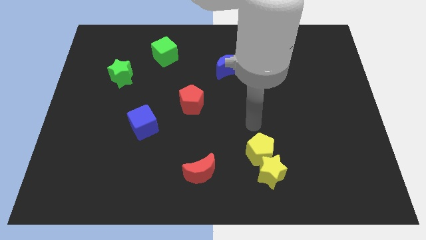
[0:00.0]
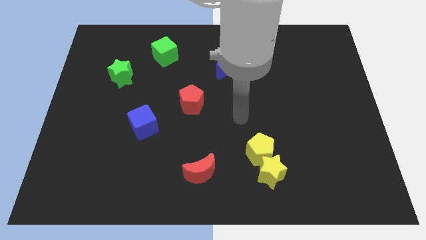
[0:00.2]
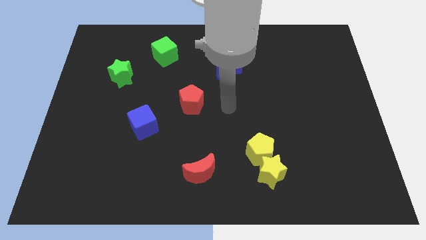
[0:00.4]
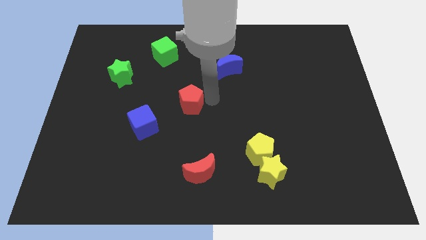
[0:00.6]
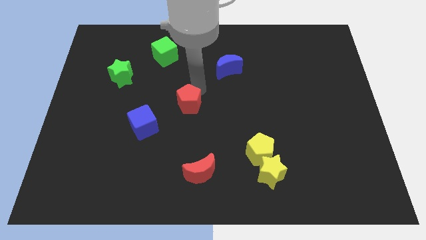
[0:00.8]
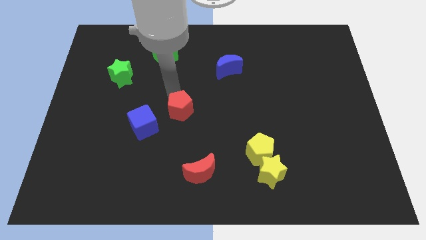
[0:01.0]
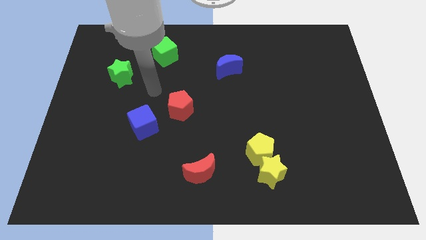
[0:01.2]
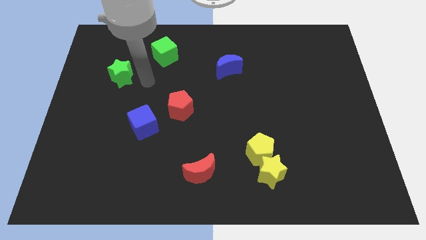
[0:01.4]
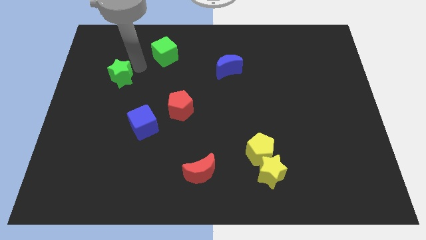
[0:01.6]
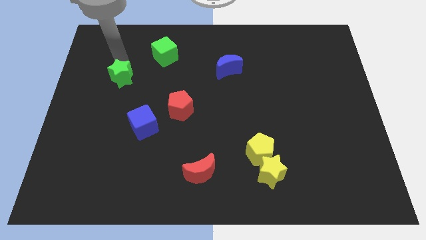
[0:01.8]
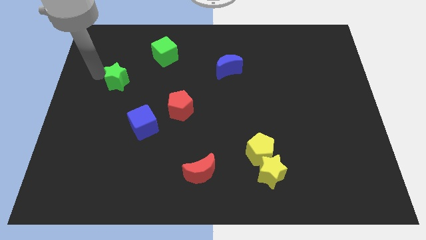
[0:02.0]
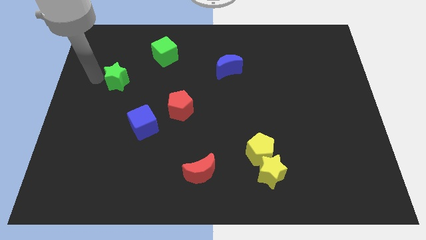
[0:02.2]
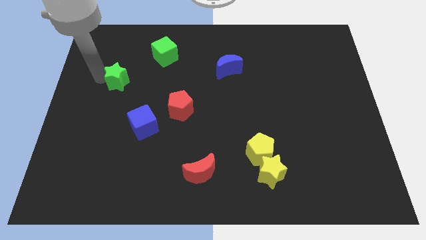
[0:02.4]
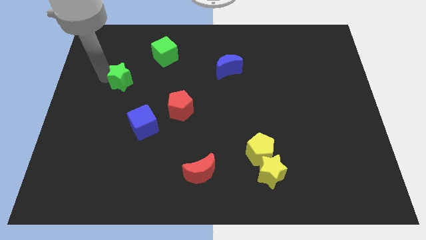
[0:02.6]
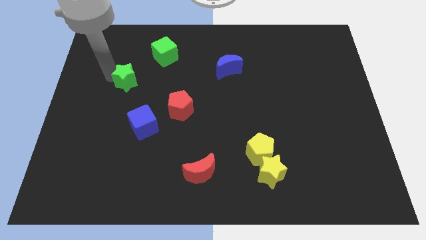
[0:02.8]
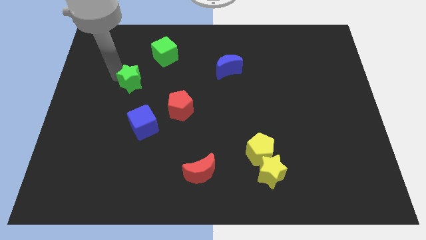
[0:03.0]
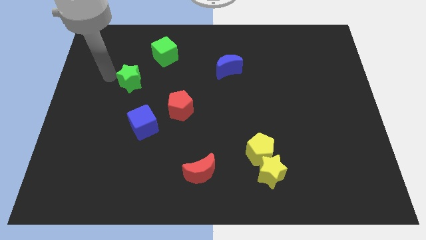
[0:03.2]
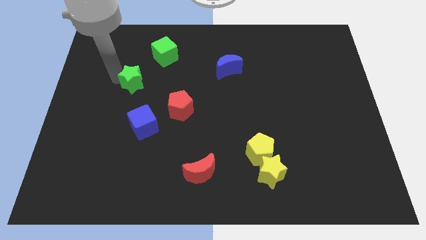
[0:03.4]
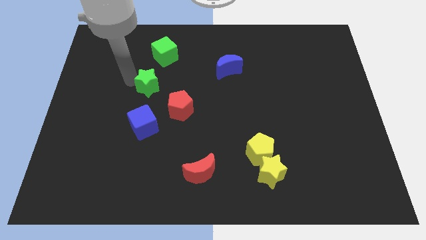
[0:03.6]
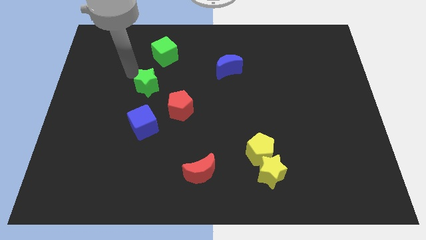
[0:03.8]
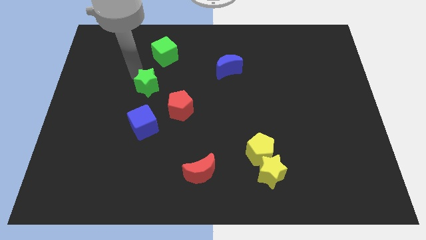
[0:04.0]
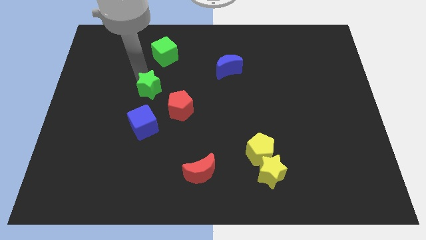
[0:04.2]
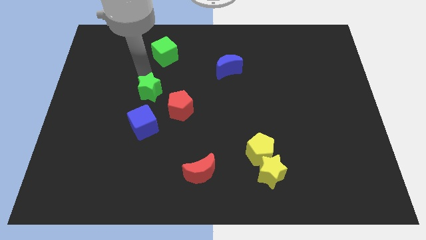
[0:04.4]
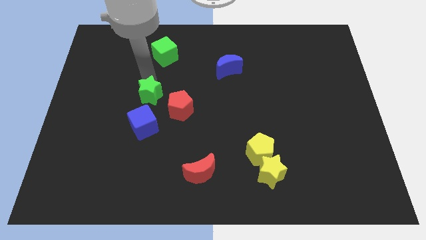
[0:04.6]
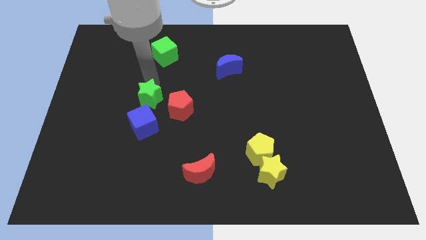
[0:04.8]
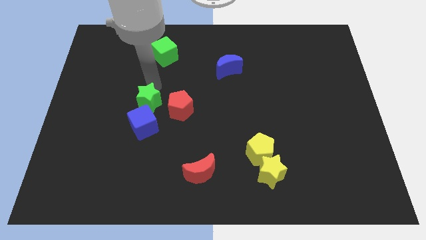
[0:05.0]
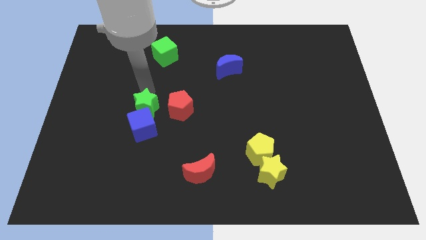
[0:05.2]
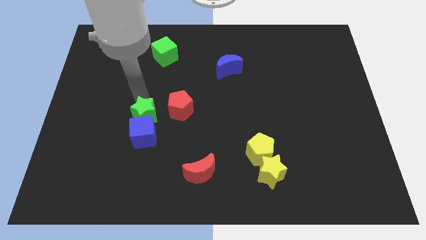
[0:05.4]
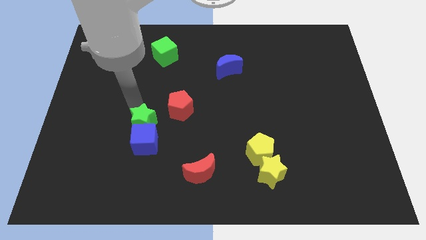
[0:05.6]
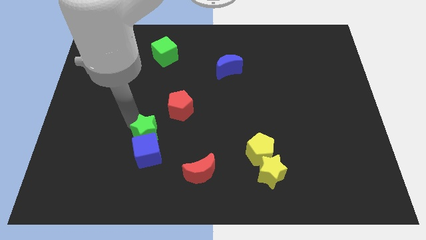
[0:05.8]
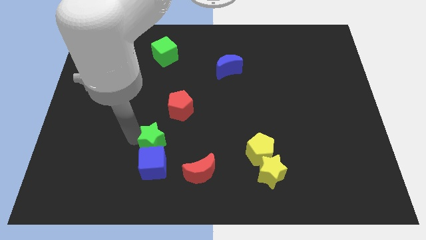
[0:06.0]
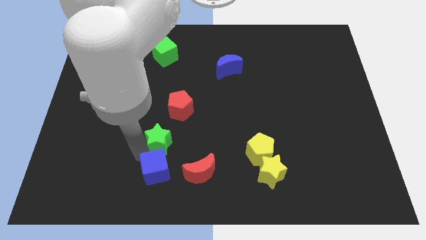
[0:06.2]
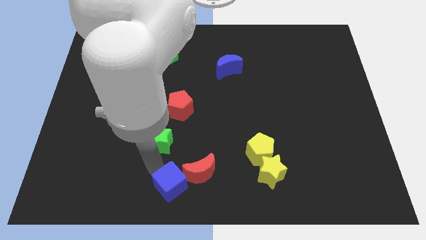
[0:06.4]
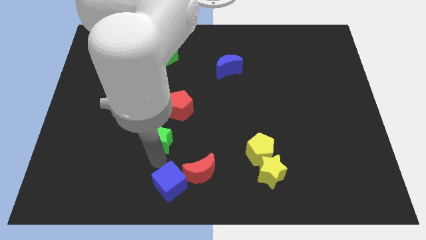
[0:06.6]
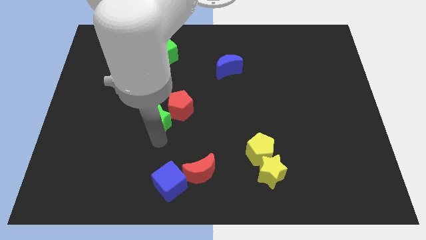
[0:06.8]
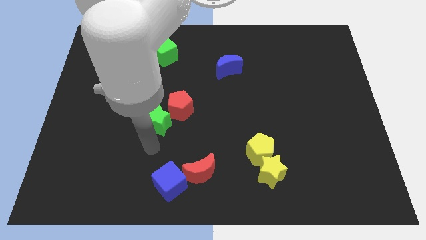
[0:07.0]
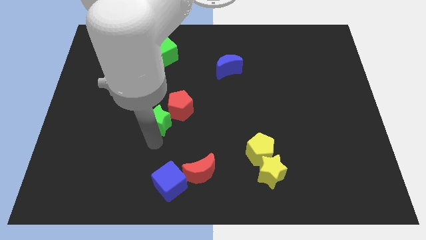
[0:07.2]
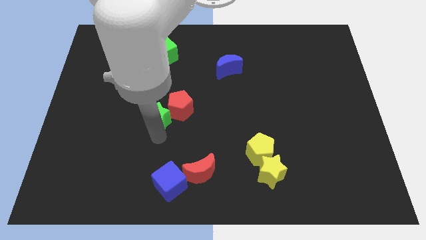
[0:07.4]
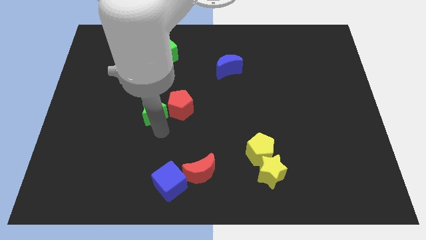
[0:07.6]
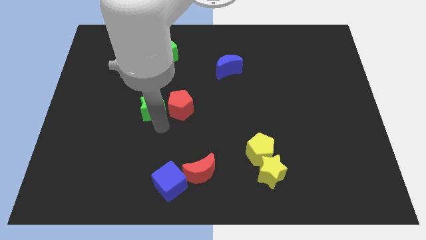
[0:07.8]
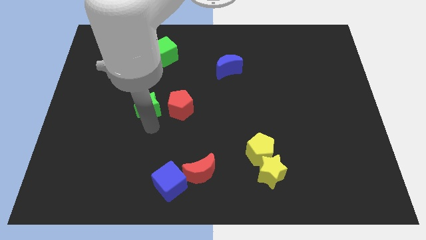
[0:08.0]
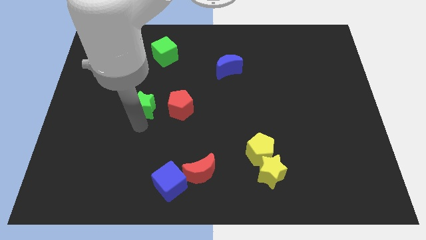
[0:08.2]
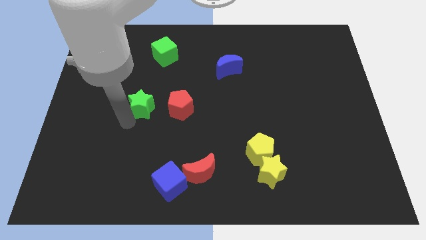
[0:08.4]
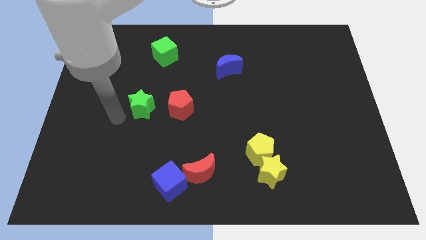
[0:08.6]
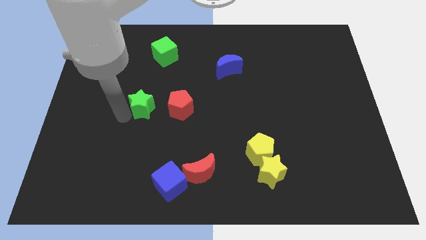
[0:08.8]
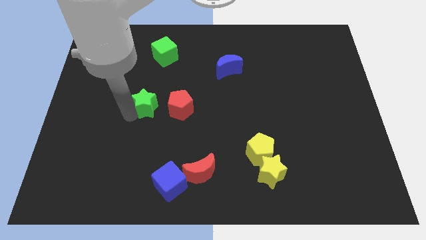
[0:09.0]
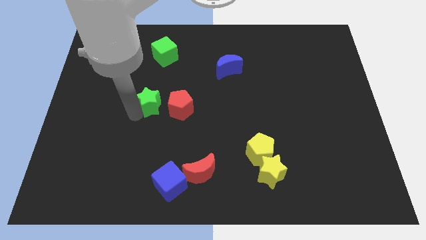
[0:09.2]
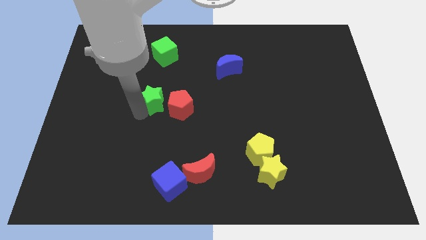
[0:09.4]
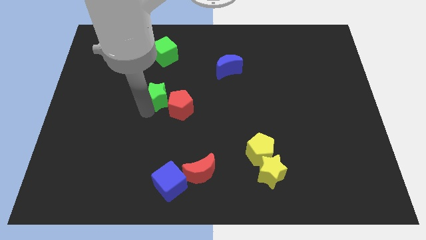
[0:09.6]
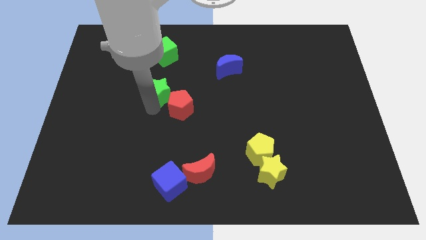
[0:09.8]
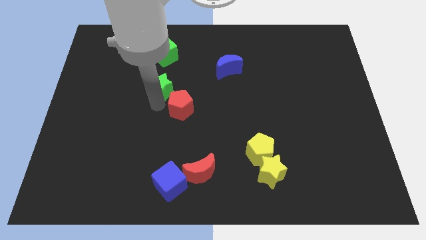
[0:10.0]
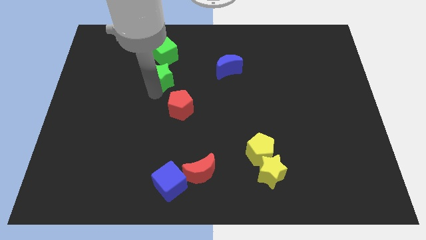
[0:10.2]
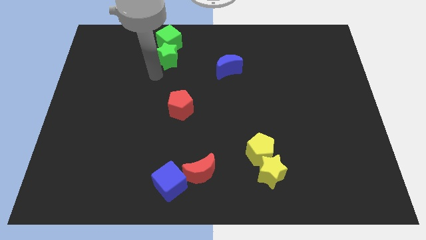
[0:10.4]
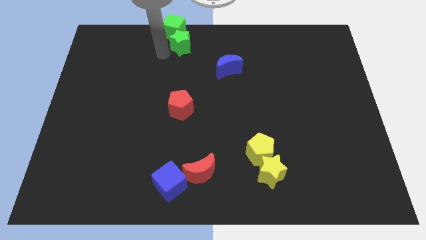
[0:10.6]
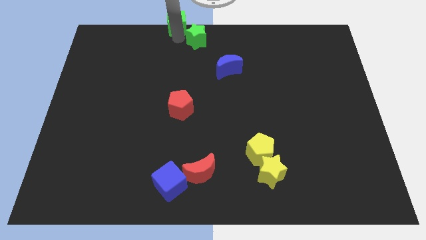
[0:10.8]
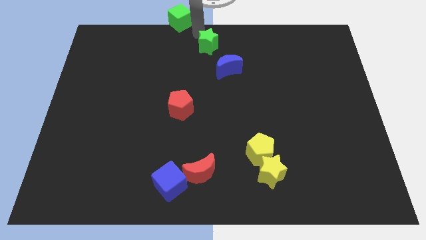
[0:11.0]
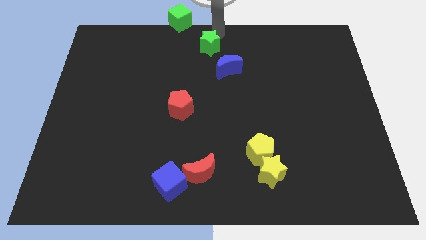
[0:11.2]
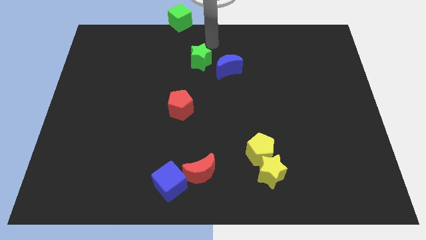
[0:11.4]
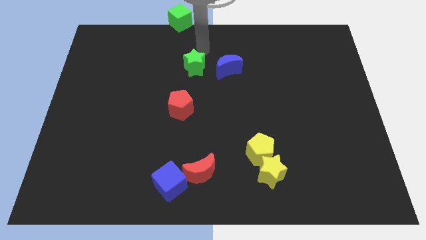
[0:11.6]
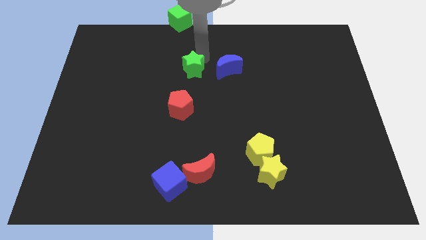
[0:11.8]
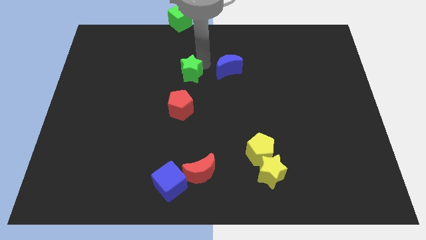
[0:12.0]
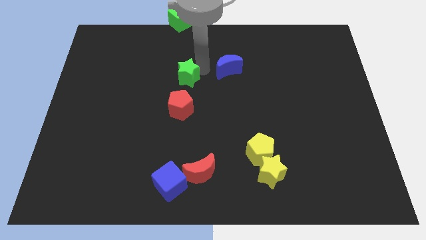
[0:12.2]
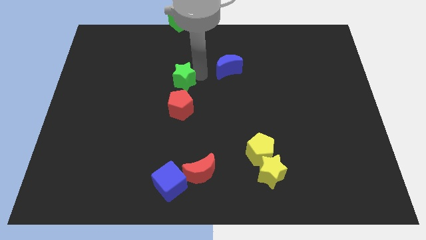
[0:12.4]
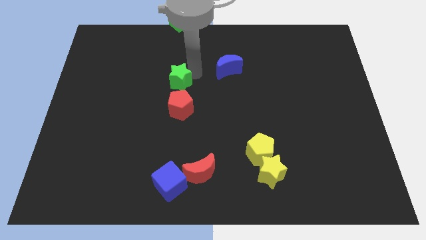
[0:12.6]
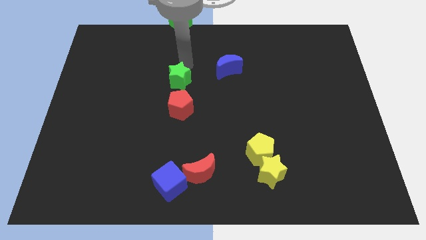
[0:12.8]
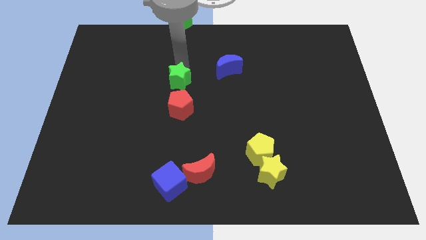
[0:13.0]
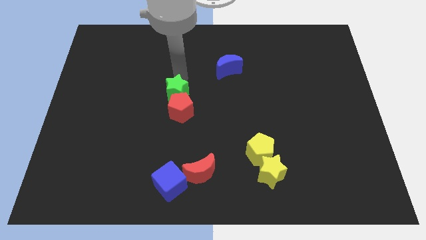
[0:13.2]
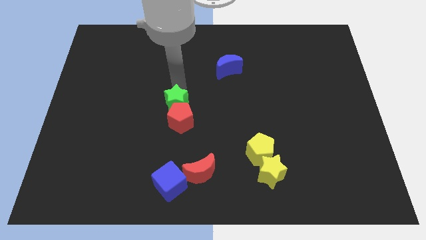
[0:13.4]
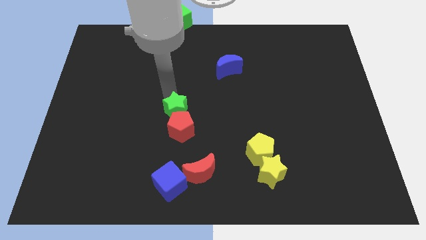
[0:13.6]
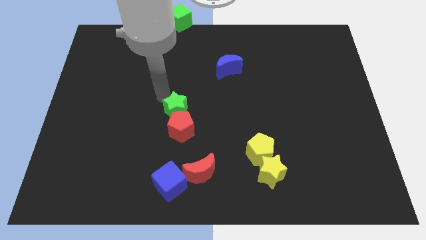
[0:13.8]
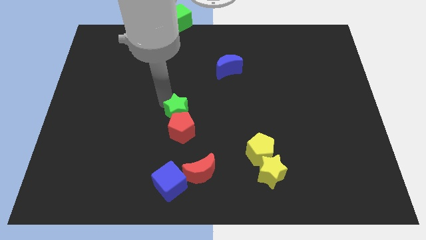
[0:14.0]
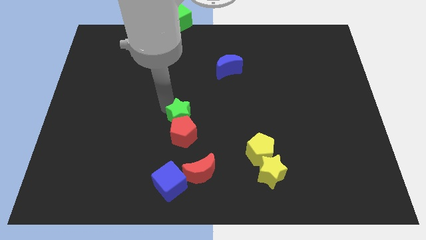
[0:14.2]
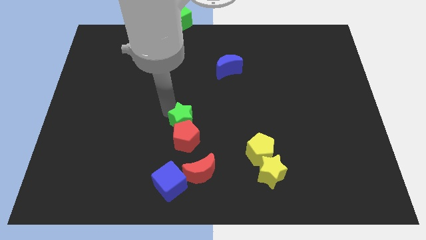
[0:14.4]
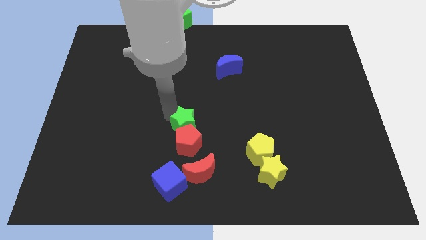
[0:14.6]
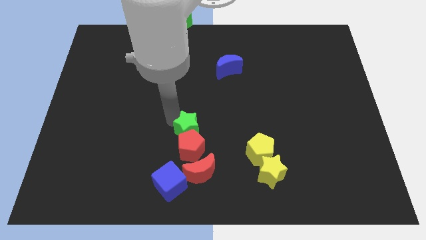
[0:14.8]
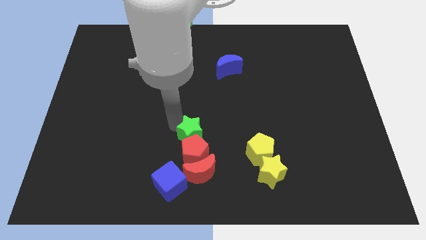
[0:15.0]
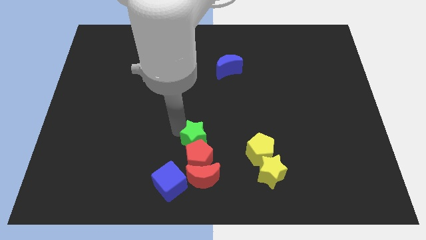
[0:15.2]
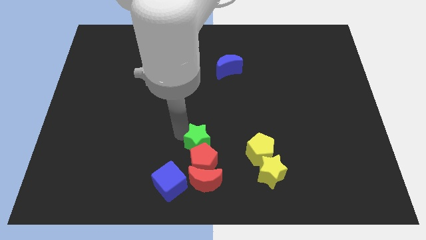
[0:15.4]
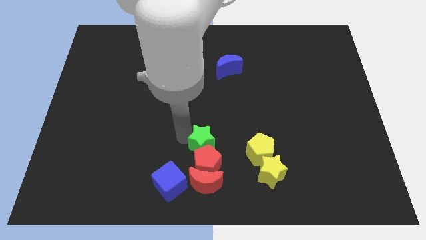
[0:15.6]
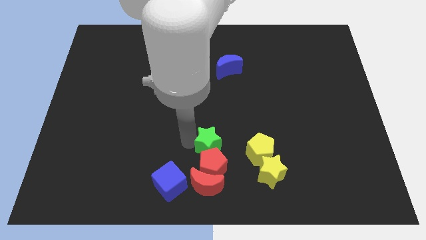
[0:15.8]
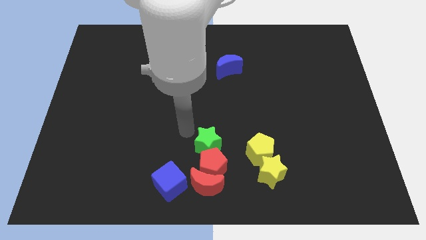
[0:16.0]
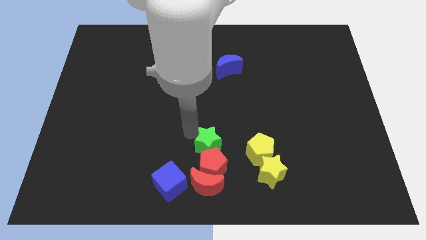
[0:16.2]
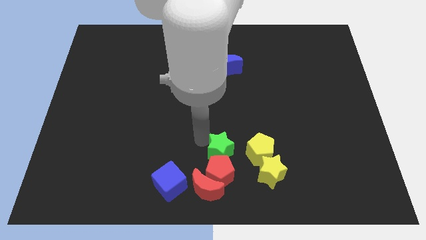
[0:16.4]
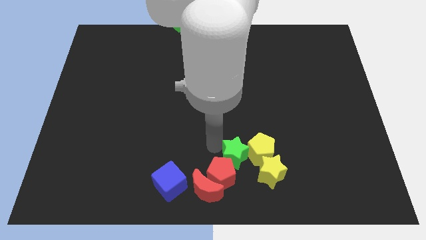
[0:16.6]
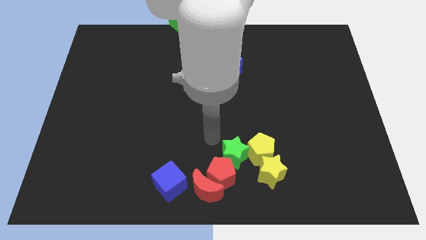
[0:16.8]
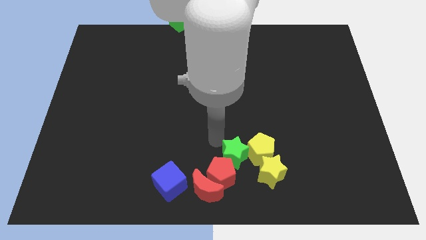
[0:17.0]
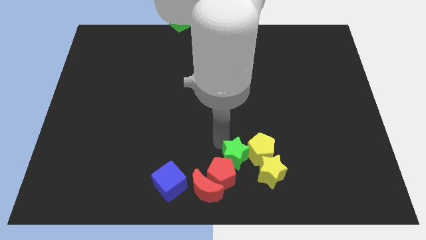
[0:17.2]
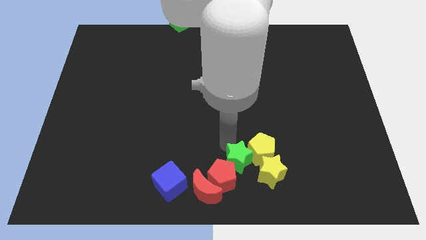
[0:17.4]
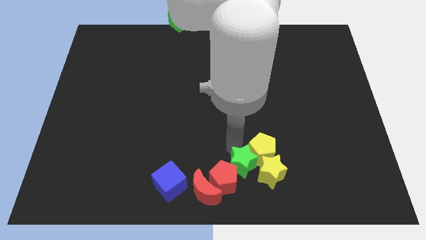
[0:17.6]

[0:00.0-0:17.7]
slide the green star to the yellow star
